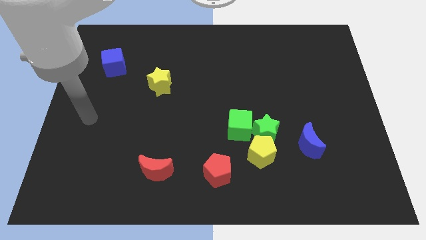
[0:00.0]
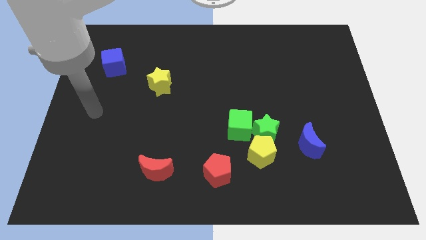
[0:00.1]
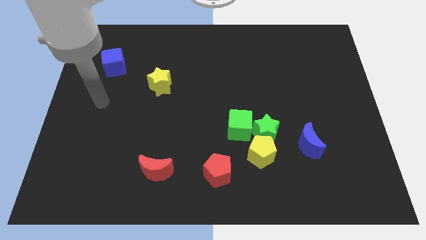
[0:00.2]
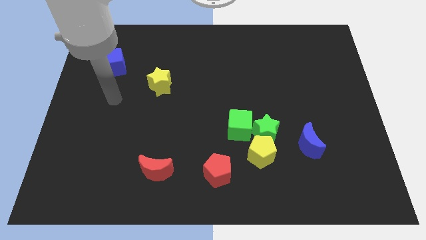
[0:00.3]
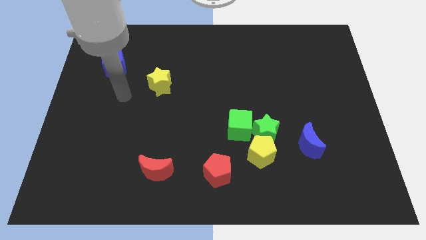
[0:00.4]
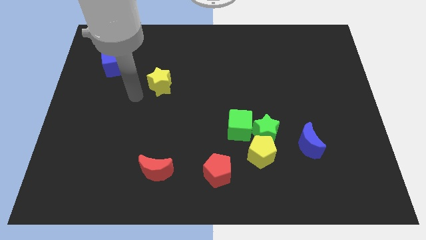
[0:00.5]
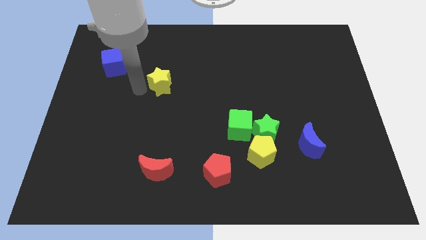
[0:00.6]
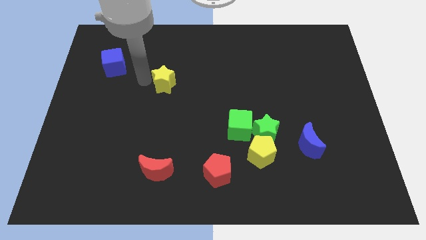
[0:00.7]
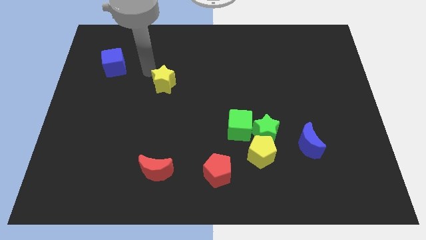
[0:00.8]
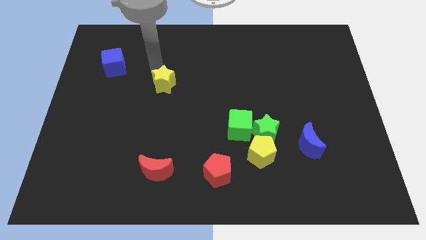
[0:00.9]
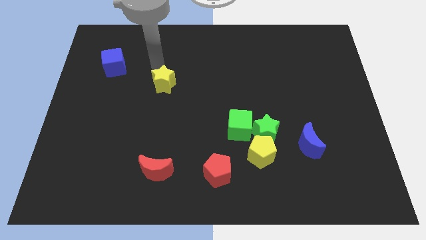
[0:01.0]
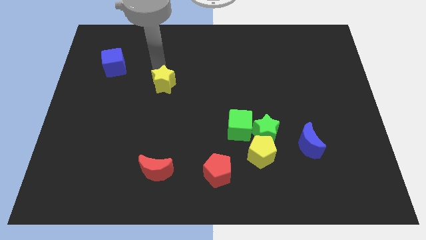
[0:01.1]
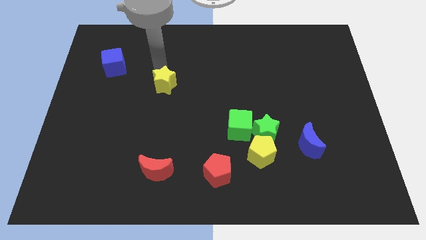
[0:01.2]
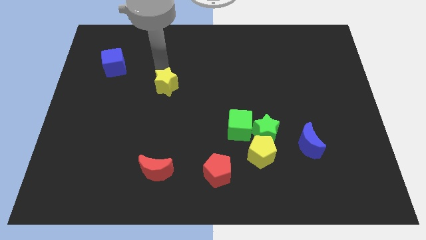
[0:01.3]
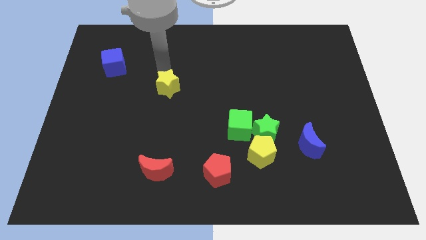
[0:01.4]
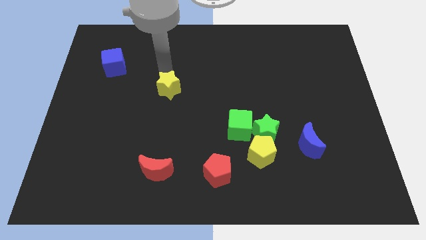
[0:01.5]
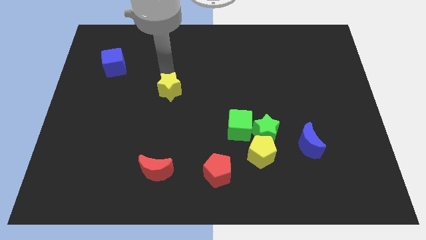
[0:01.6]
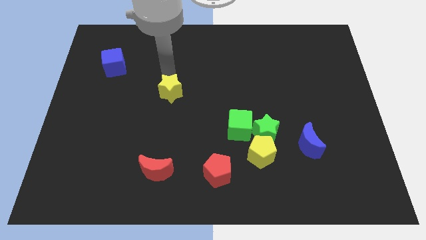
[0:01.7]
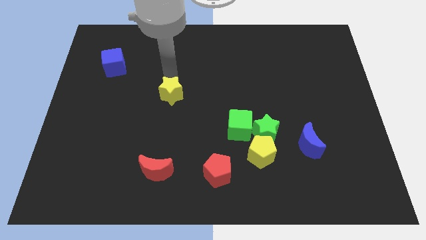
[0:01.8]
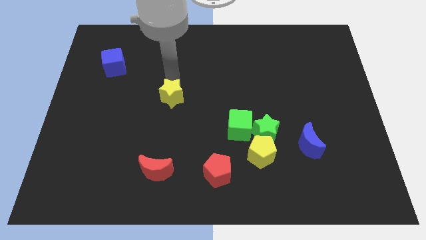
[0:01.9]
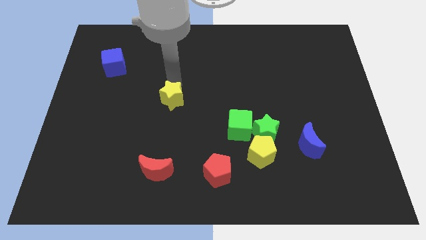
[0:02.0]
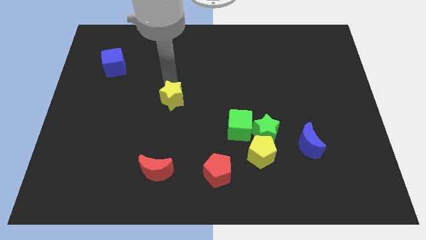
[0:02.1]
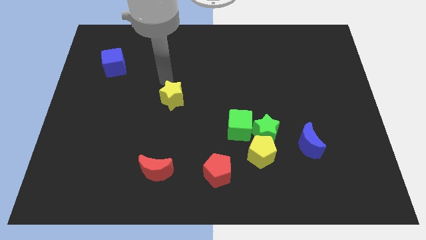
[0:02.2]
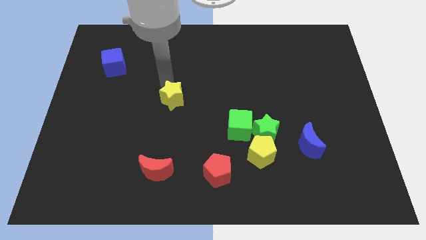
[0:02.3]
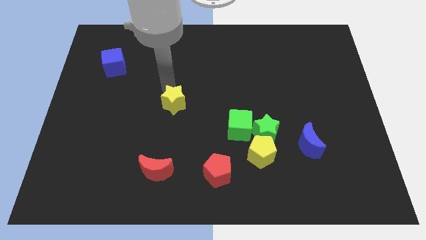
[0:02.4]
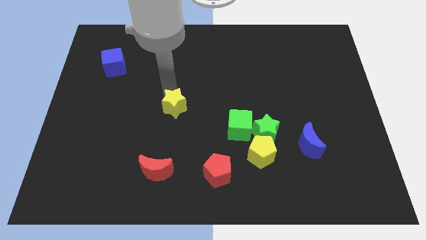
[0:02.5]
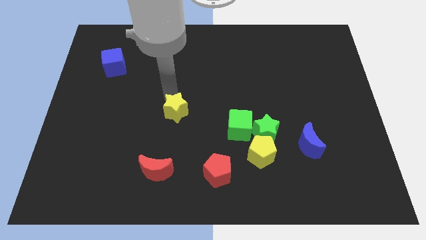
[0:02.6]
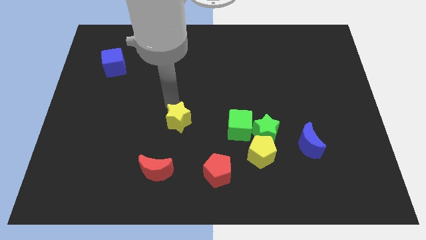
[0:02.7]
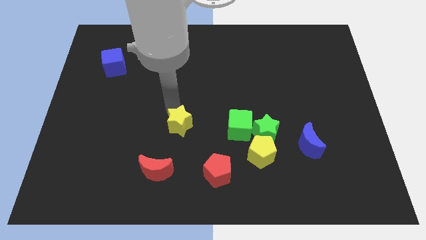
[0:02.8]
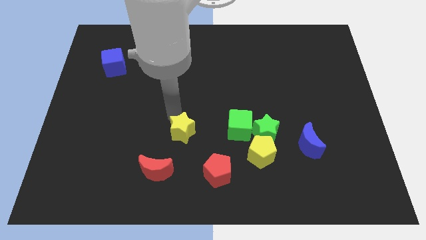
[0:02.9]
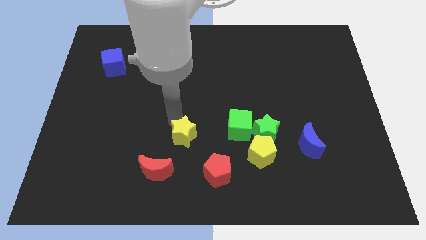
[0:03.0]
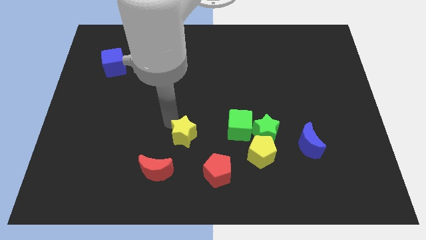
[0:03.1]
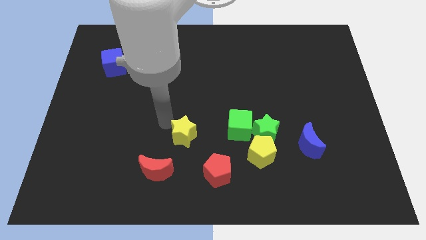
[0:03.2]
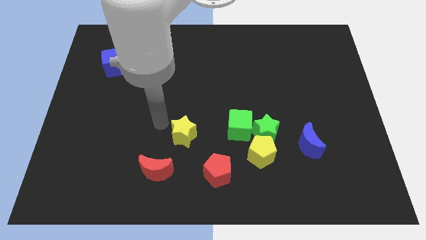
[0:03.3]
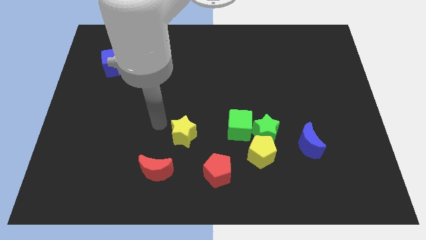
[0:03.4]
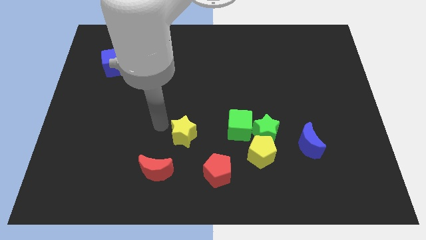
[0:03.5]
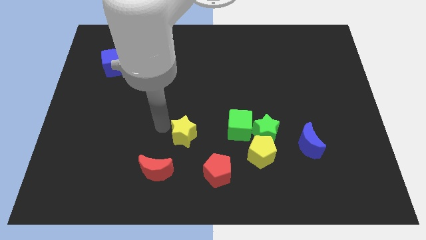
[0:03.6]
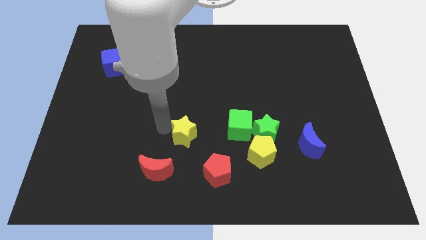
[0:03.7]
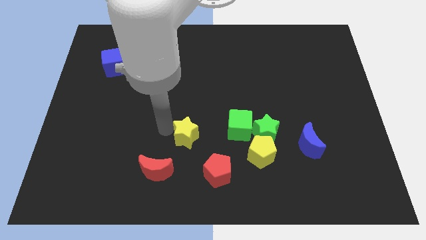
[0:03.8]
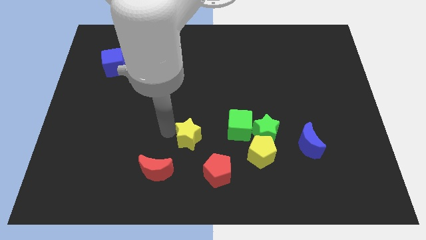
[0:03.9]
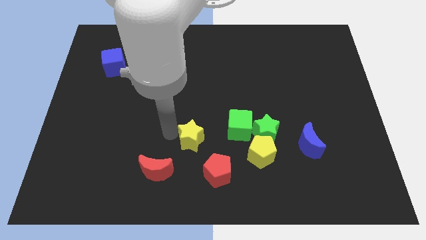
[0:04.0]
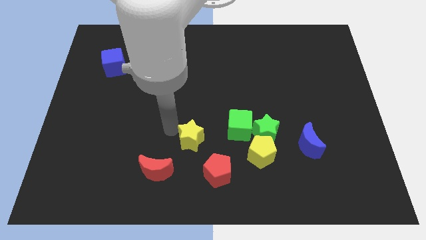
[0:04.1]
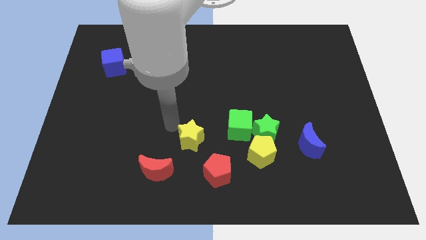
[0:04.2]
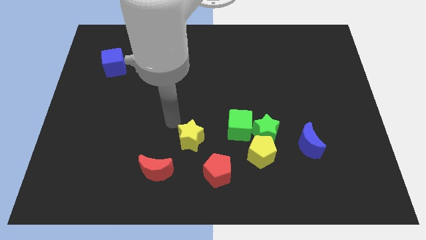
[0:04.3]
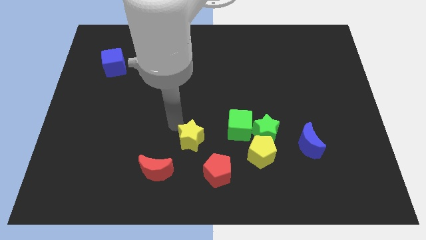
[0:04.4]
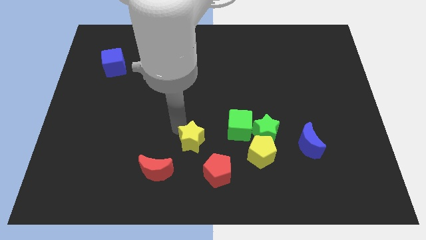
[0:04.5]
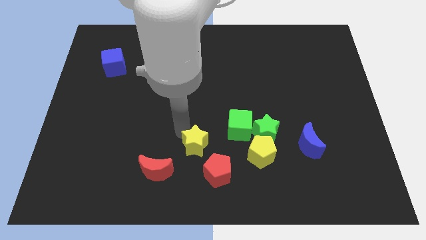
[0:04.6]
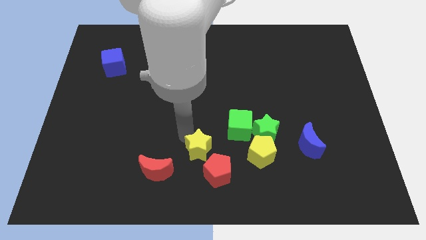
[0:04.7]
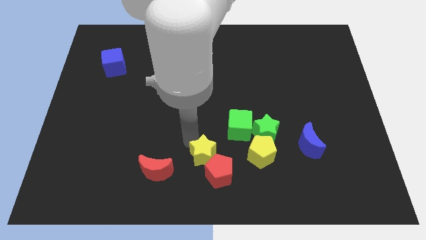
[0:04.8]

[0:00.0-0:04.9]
move the yellow star next to the red pentagon

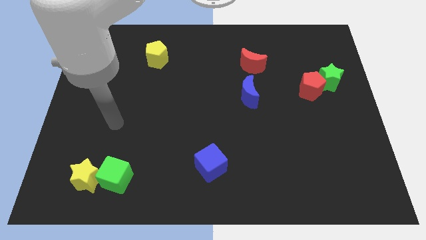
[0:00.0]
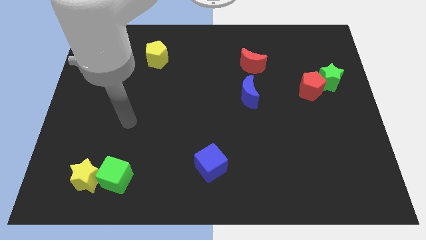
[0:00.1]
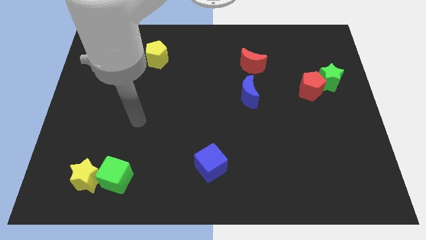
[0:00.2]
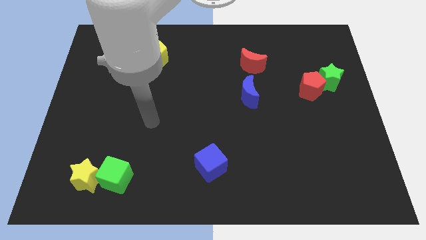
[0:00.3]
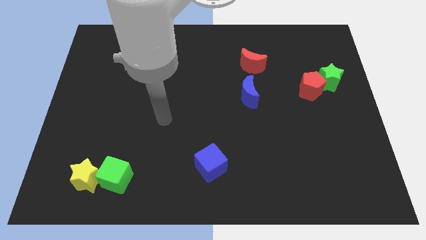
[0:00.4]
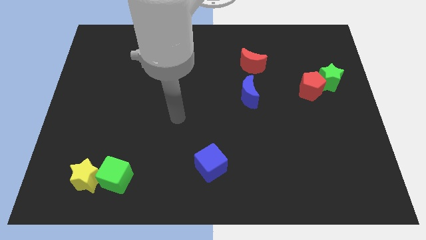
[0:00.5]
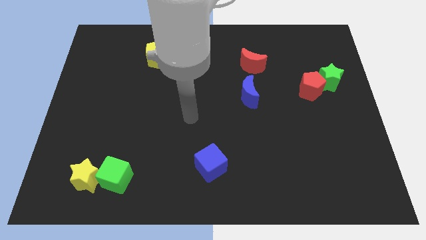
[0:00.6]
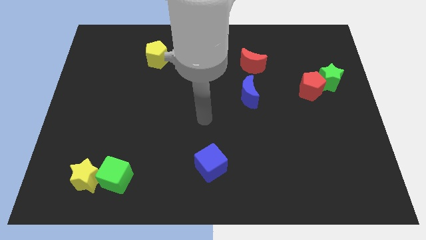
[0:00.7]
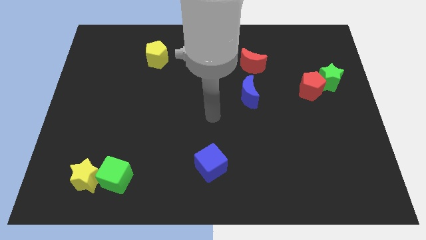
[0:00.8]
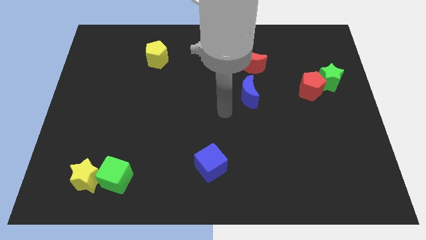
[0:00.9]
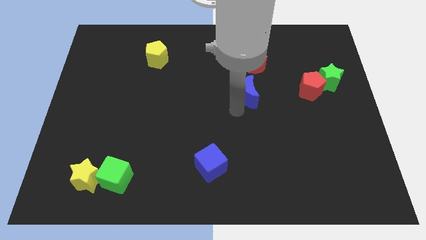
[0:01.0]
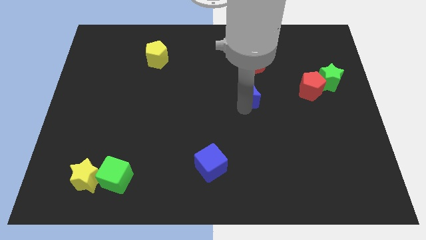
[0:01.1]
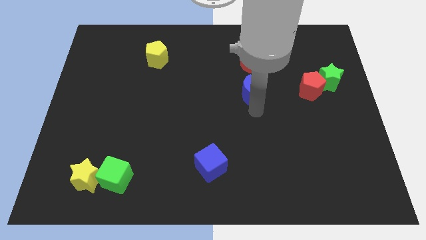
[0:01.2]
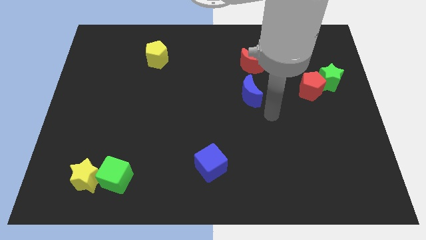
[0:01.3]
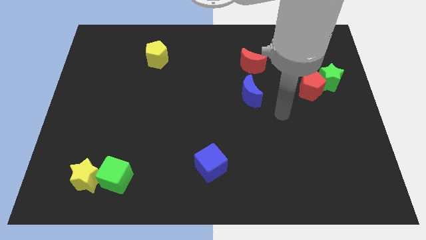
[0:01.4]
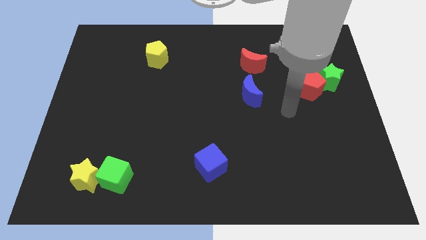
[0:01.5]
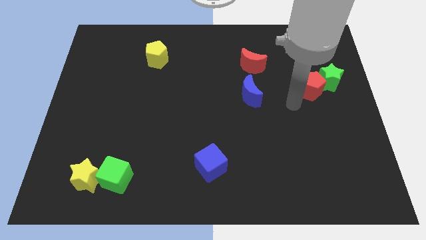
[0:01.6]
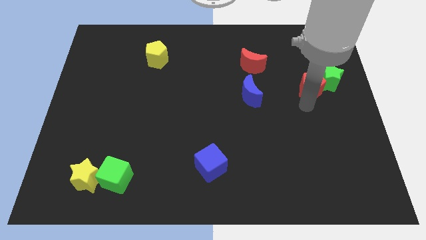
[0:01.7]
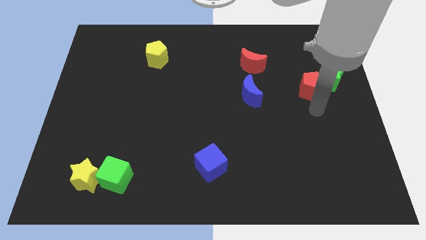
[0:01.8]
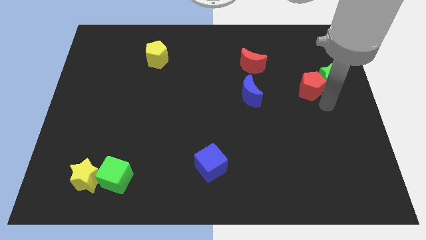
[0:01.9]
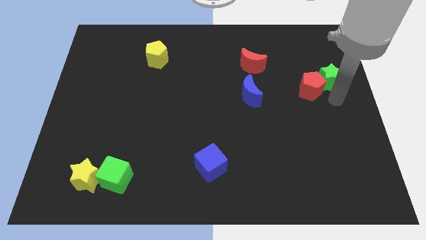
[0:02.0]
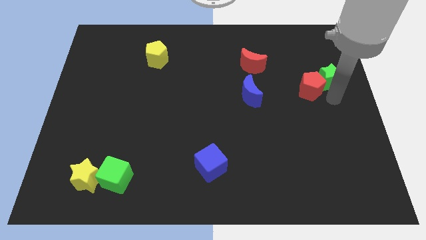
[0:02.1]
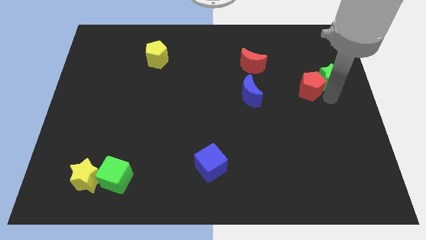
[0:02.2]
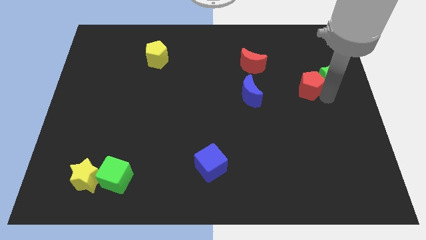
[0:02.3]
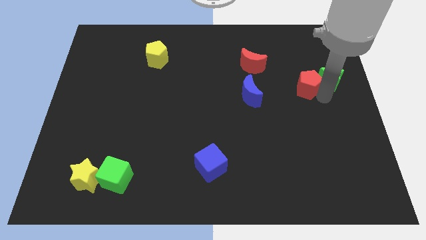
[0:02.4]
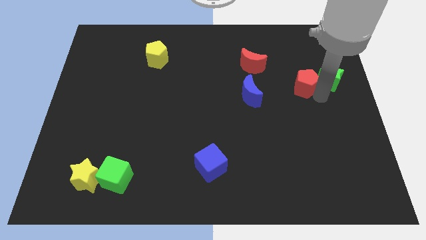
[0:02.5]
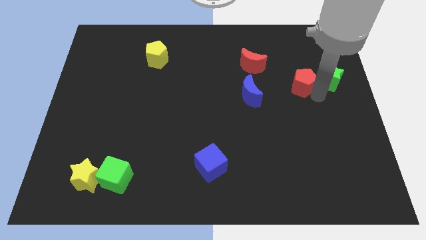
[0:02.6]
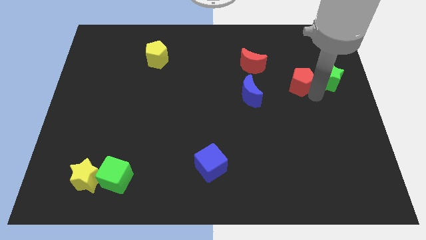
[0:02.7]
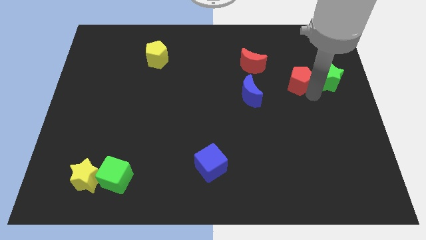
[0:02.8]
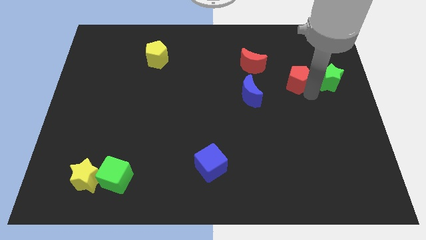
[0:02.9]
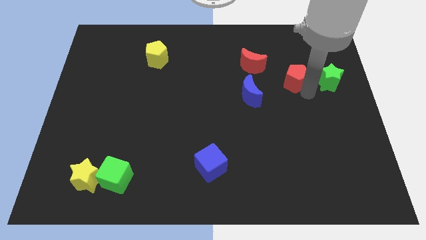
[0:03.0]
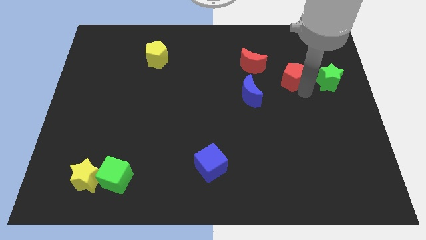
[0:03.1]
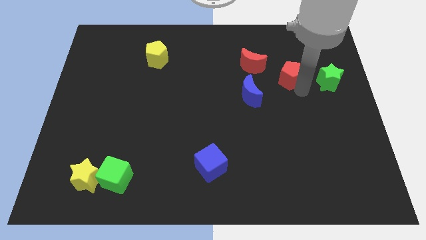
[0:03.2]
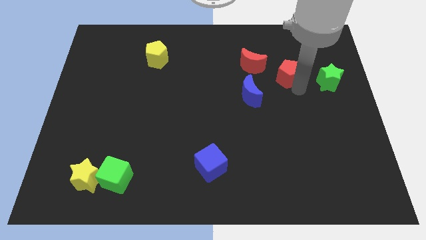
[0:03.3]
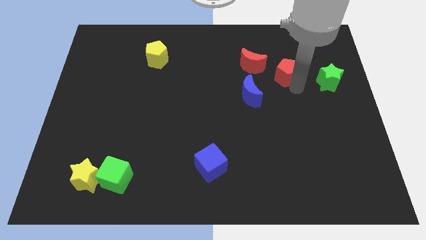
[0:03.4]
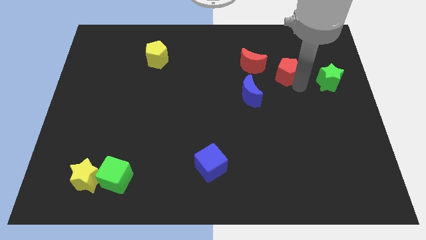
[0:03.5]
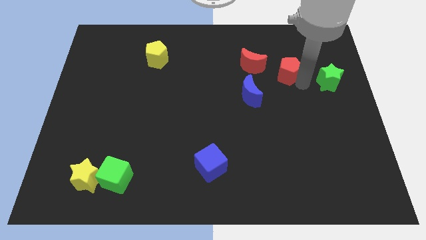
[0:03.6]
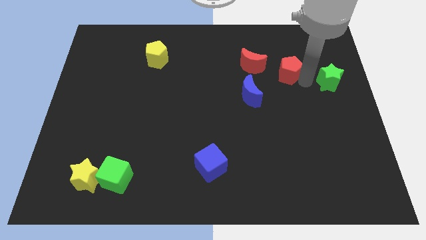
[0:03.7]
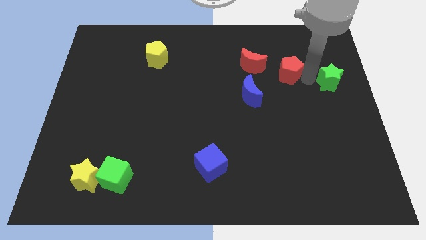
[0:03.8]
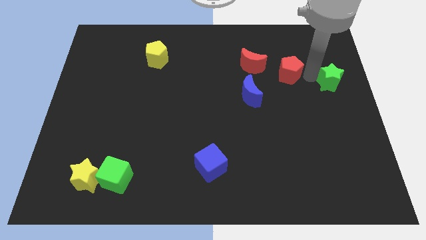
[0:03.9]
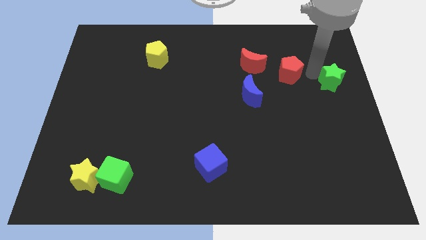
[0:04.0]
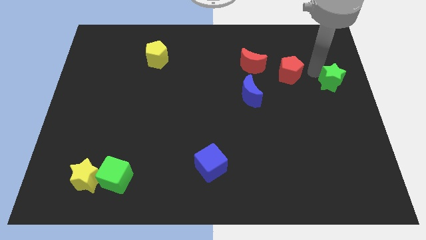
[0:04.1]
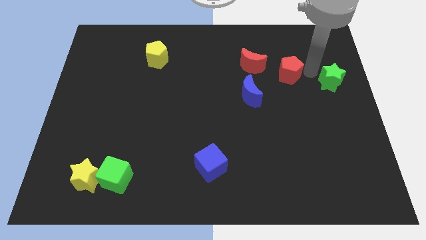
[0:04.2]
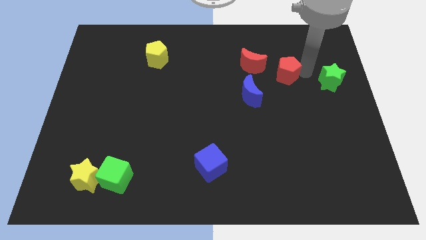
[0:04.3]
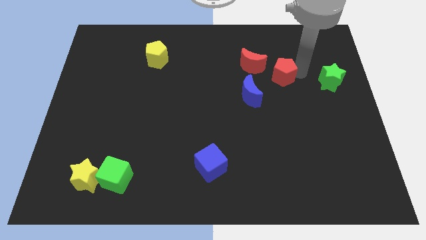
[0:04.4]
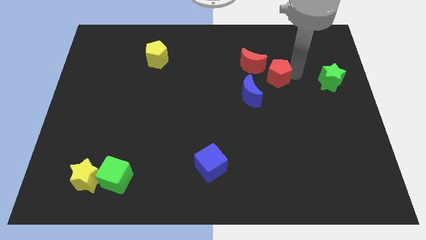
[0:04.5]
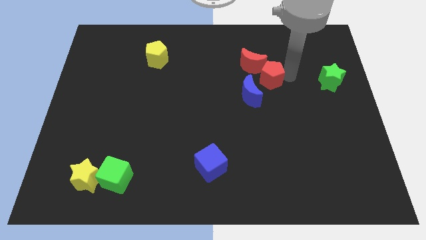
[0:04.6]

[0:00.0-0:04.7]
put the red pentagon towards the red moon
